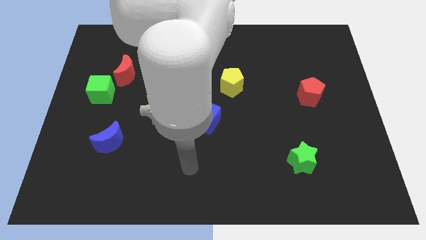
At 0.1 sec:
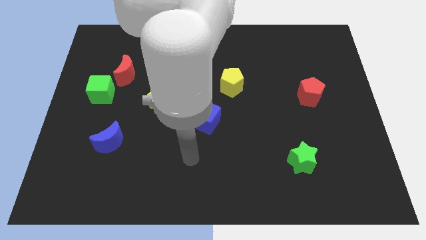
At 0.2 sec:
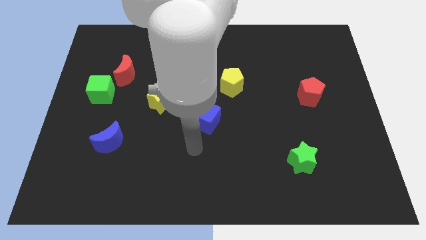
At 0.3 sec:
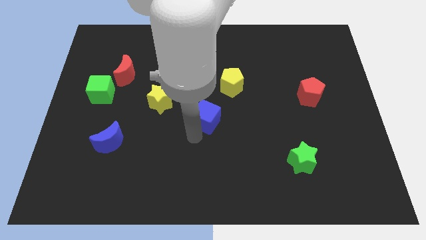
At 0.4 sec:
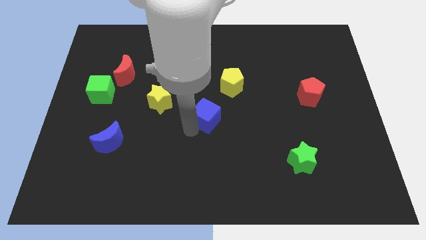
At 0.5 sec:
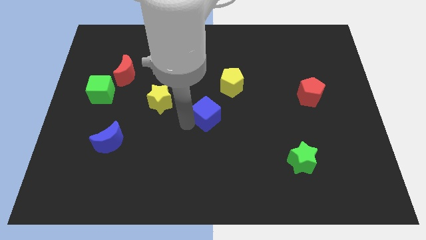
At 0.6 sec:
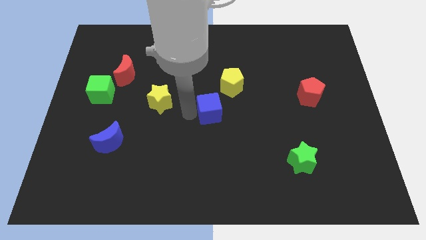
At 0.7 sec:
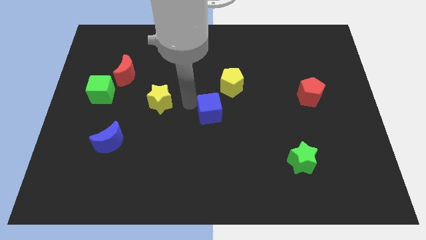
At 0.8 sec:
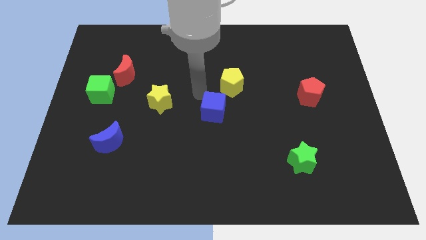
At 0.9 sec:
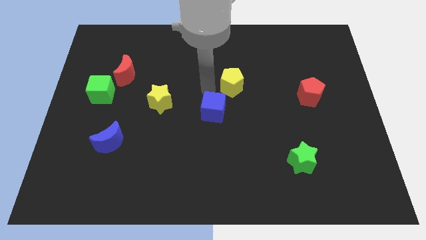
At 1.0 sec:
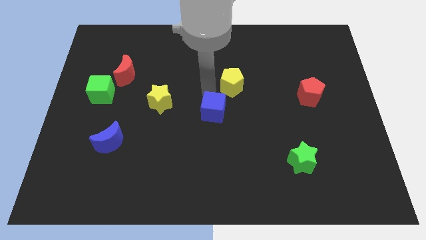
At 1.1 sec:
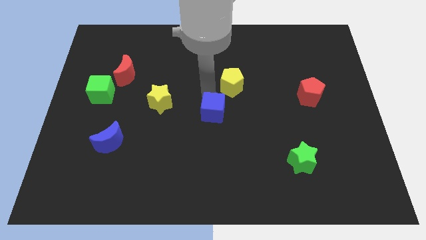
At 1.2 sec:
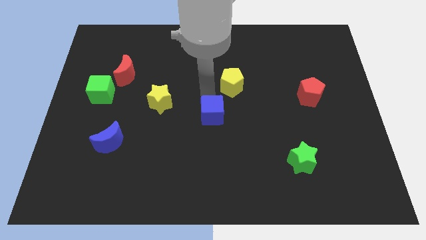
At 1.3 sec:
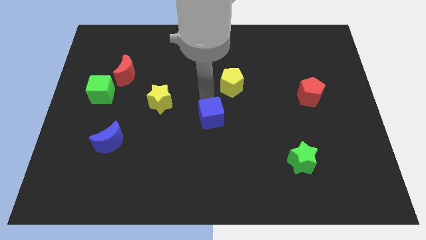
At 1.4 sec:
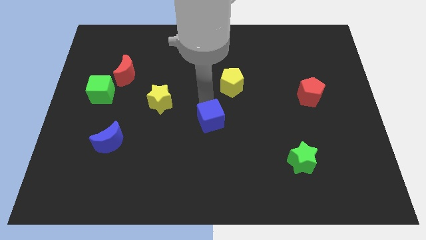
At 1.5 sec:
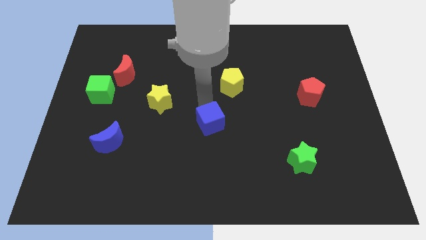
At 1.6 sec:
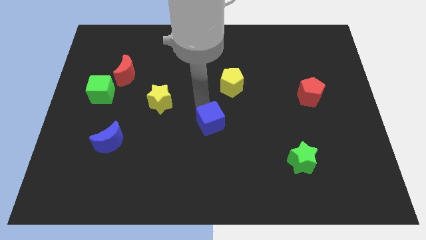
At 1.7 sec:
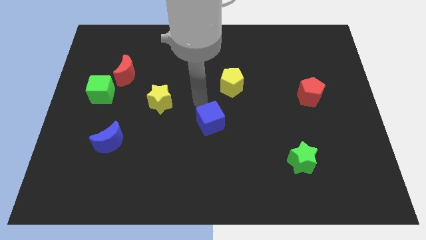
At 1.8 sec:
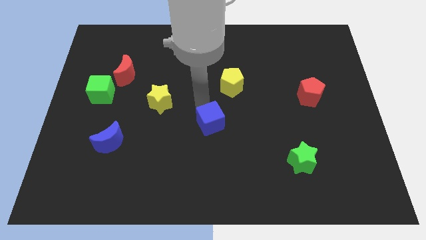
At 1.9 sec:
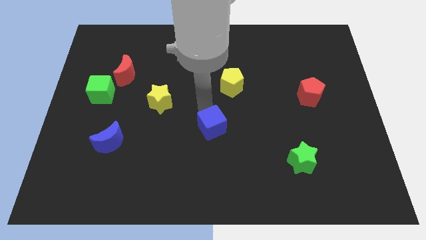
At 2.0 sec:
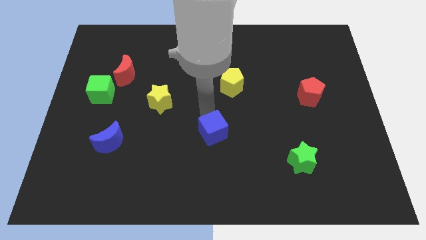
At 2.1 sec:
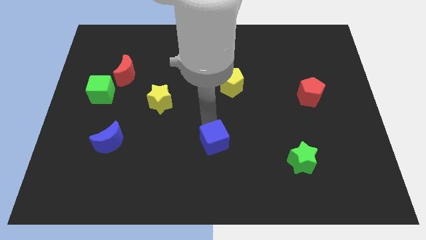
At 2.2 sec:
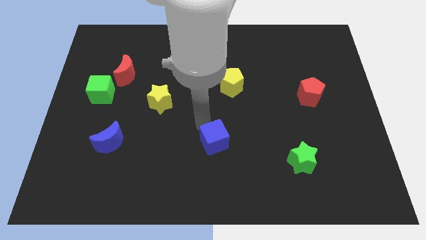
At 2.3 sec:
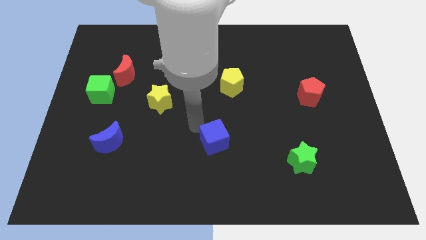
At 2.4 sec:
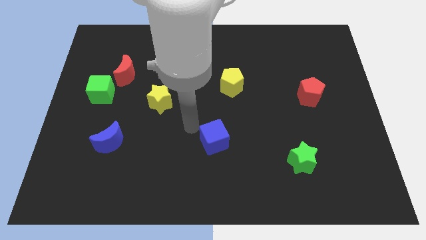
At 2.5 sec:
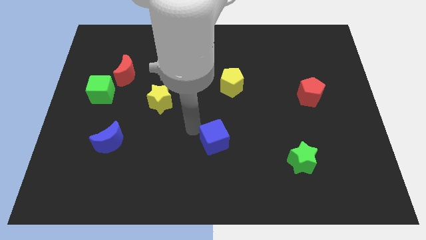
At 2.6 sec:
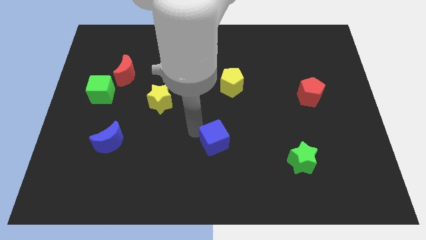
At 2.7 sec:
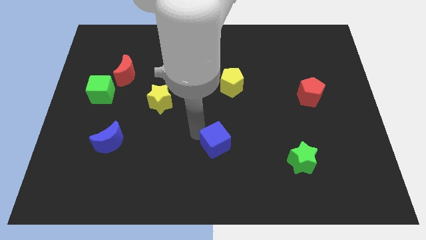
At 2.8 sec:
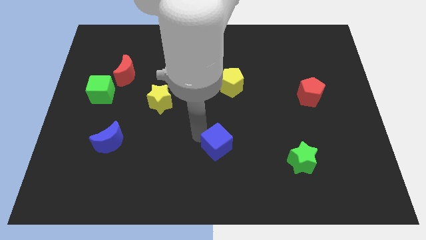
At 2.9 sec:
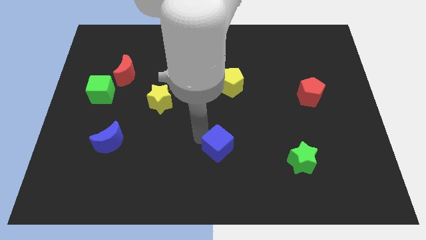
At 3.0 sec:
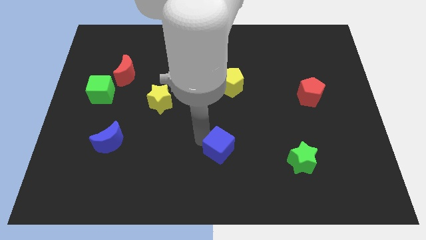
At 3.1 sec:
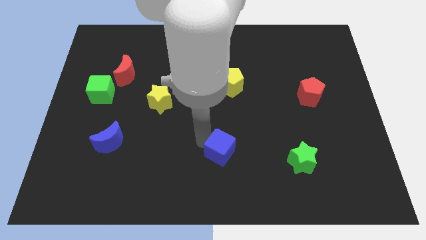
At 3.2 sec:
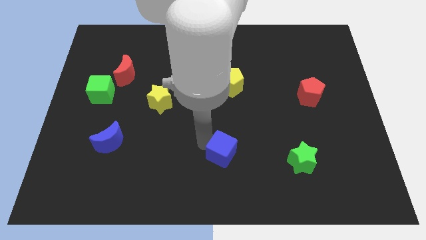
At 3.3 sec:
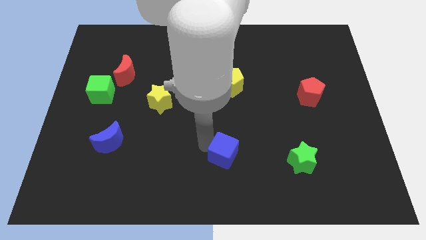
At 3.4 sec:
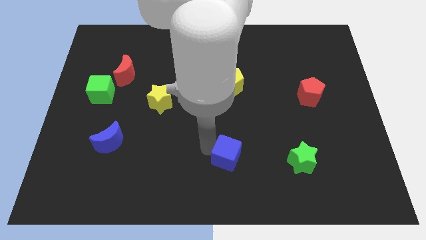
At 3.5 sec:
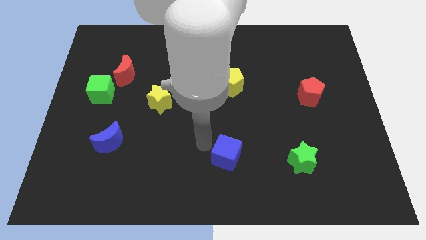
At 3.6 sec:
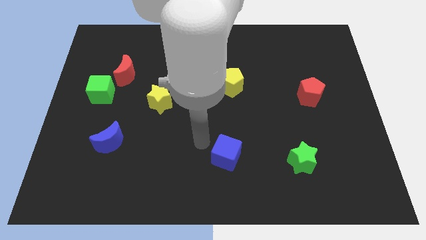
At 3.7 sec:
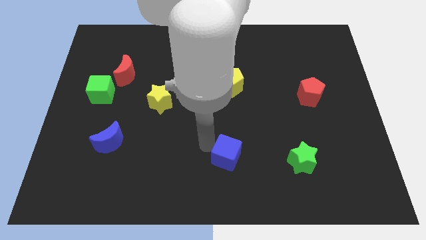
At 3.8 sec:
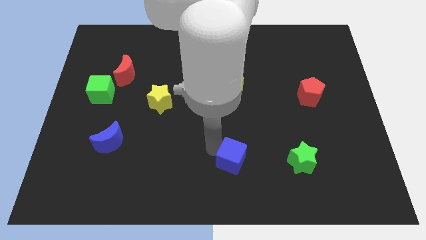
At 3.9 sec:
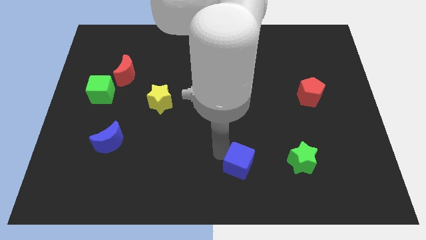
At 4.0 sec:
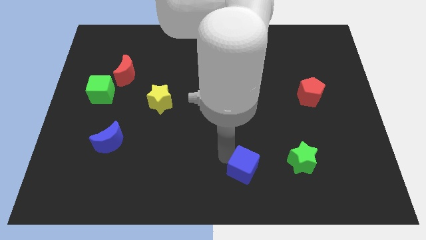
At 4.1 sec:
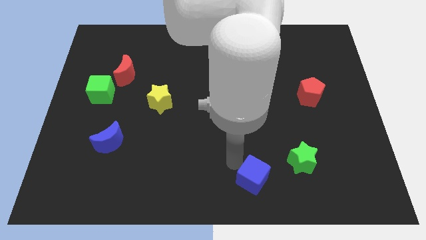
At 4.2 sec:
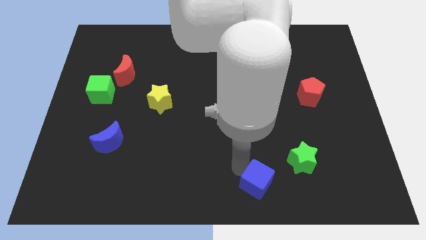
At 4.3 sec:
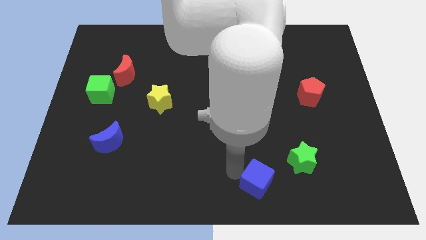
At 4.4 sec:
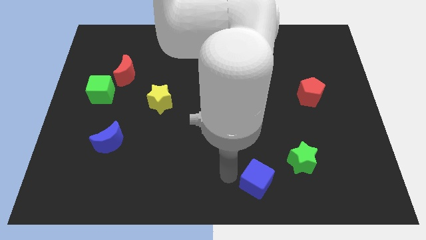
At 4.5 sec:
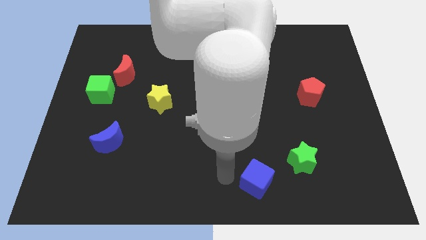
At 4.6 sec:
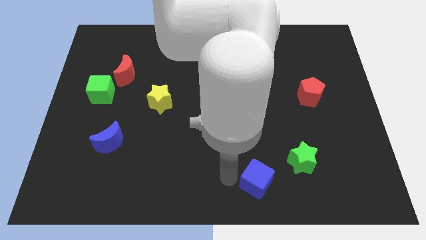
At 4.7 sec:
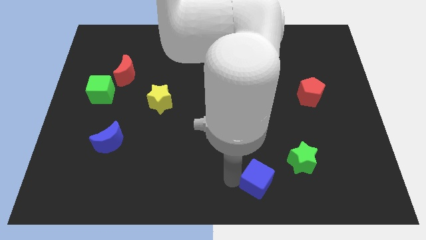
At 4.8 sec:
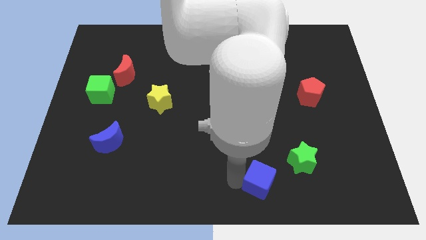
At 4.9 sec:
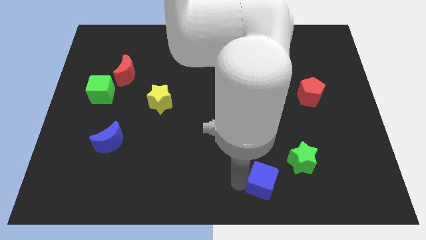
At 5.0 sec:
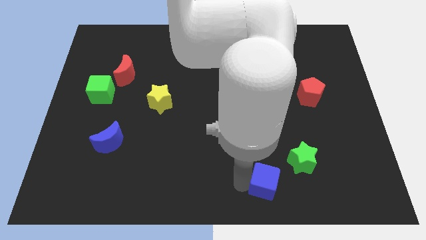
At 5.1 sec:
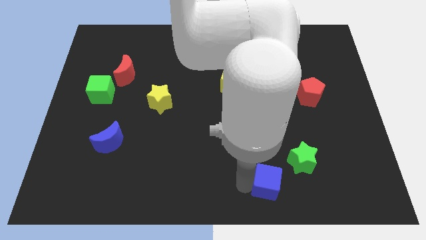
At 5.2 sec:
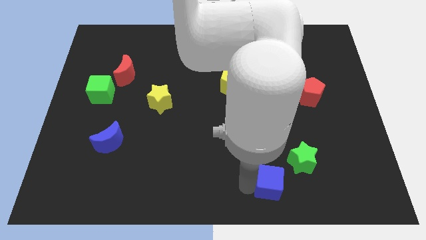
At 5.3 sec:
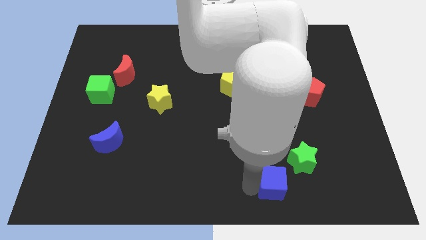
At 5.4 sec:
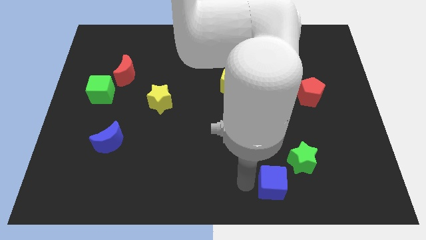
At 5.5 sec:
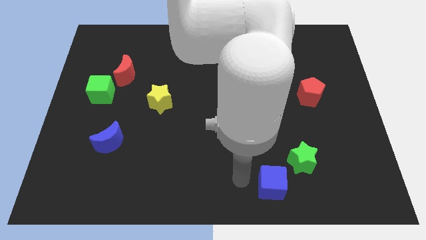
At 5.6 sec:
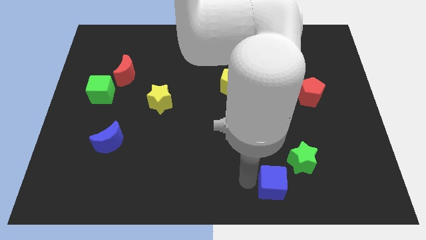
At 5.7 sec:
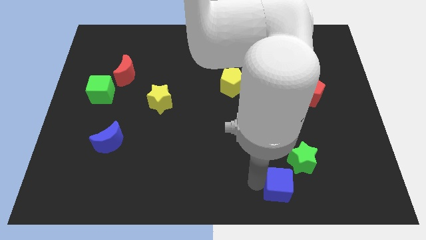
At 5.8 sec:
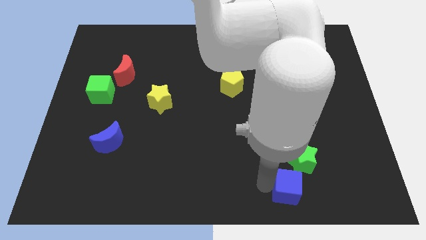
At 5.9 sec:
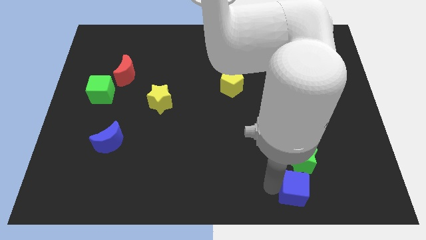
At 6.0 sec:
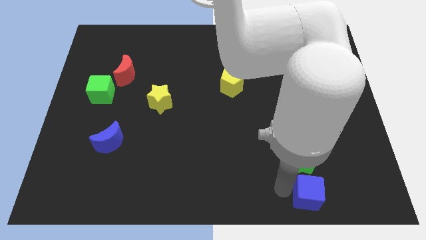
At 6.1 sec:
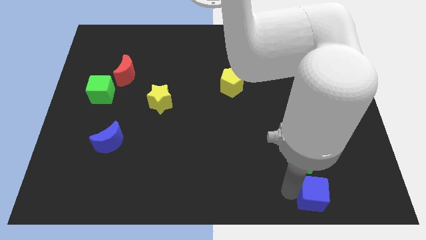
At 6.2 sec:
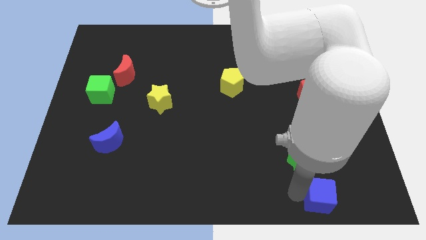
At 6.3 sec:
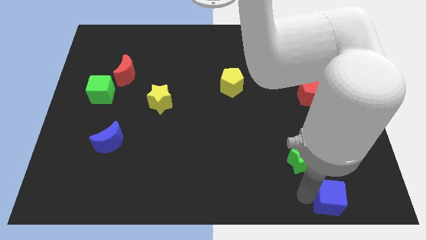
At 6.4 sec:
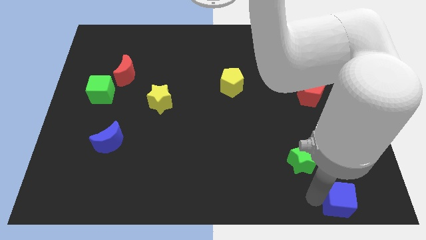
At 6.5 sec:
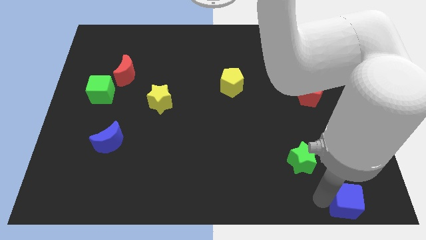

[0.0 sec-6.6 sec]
slide the blue cube to the bottom right corner
